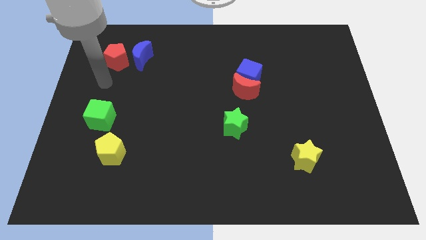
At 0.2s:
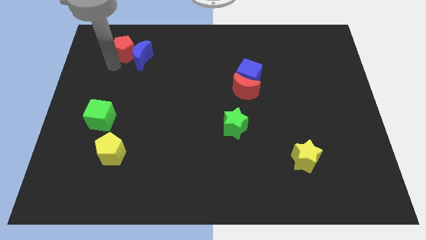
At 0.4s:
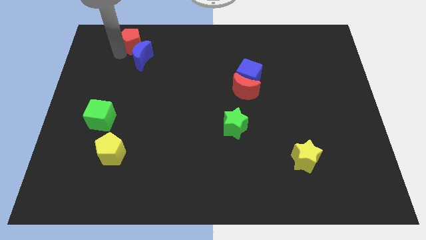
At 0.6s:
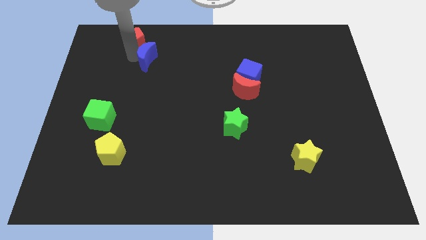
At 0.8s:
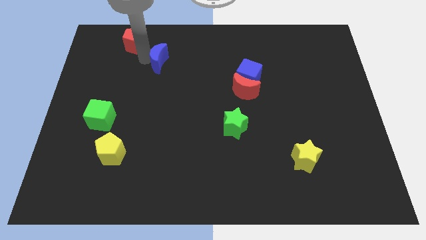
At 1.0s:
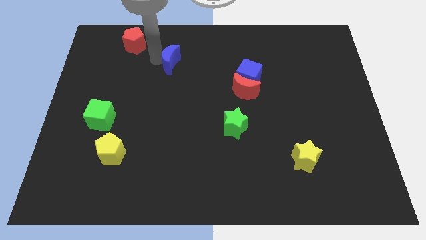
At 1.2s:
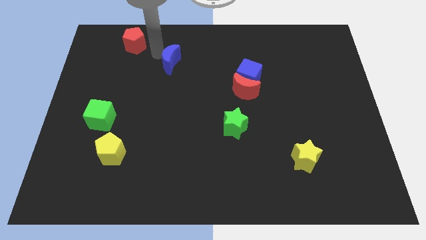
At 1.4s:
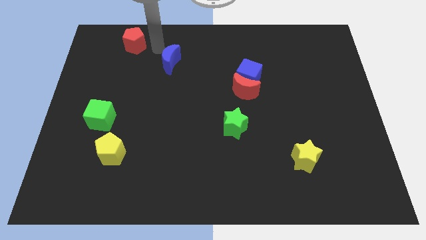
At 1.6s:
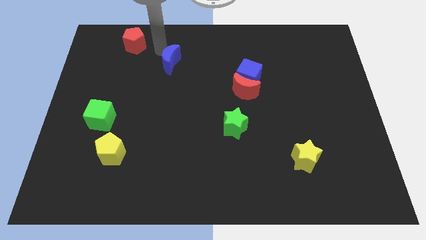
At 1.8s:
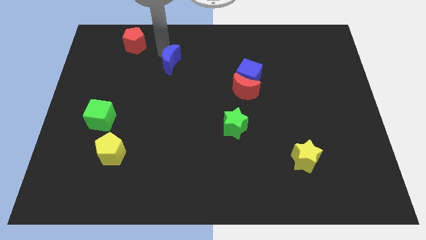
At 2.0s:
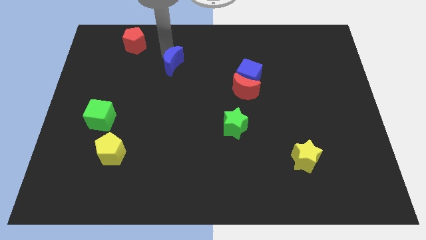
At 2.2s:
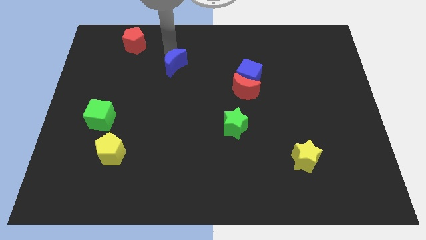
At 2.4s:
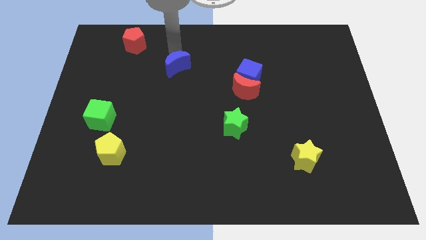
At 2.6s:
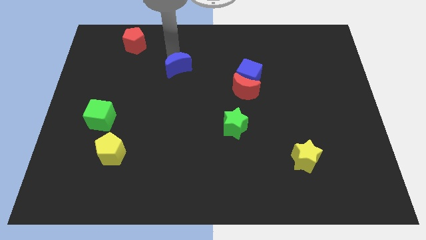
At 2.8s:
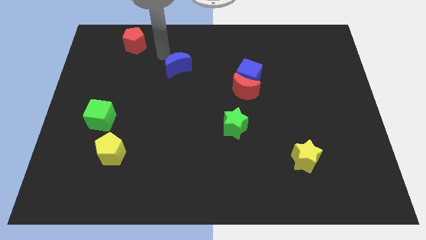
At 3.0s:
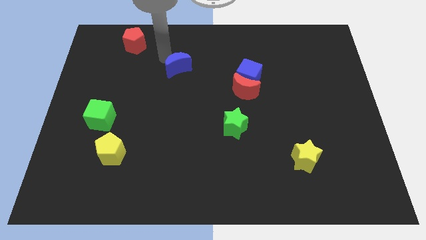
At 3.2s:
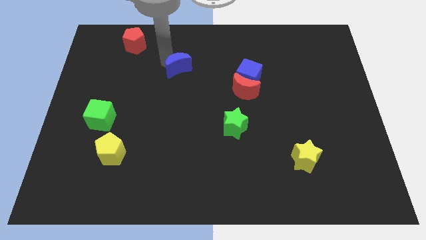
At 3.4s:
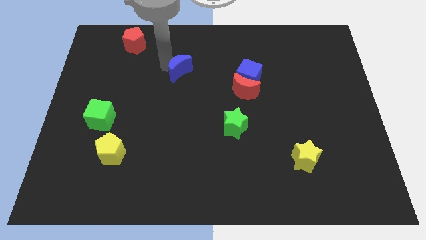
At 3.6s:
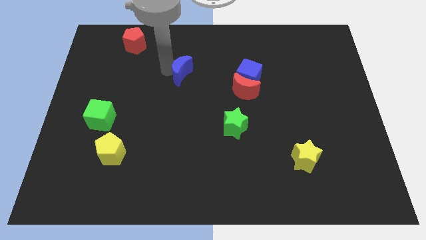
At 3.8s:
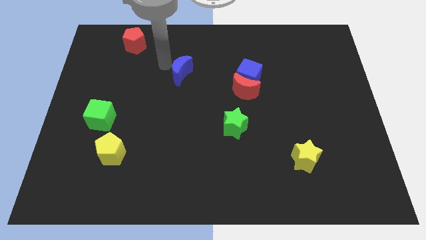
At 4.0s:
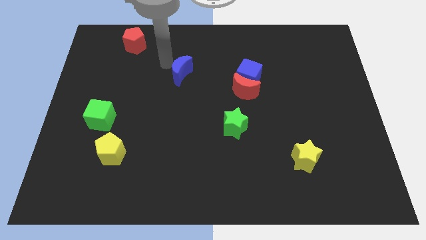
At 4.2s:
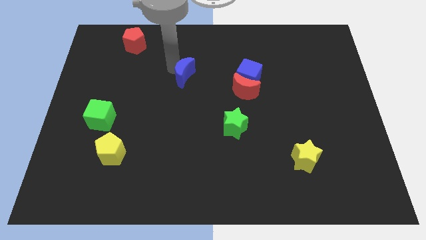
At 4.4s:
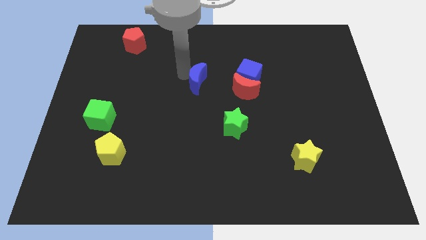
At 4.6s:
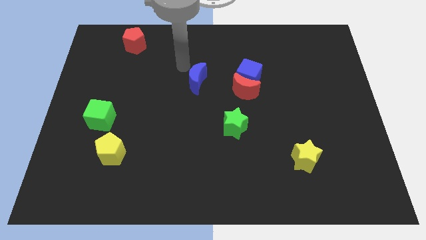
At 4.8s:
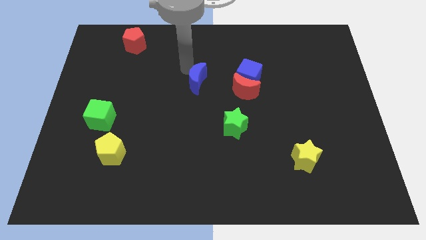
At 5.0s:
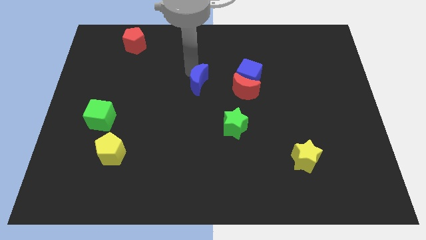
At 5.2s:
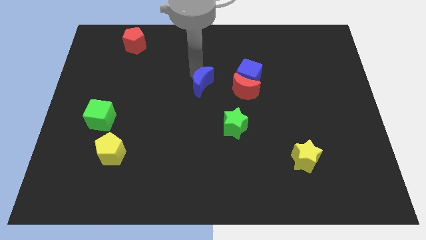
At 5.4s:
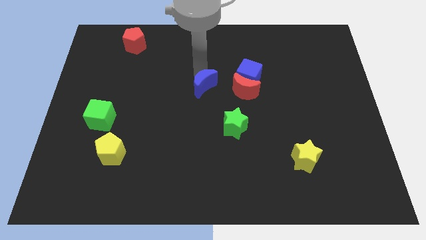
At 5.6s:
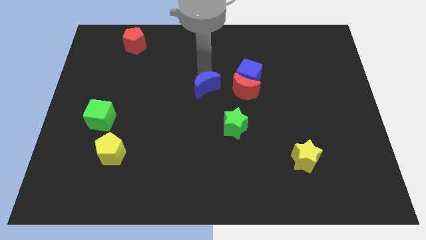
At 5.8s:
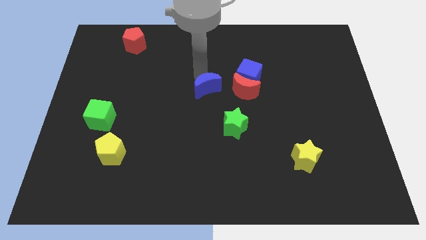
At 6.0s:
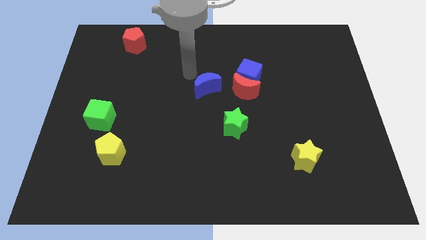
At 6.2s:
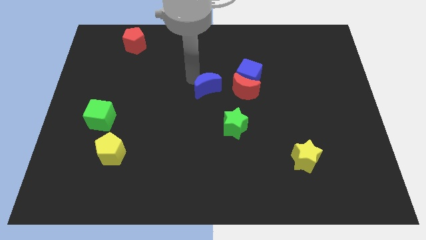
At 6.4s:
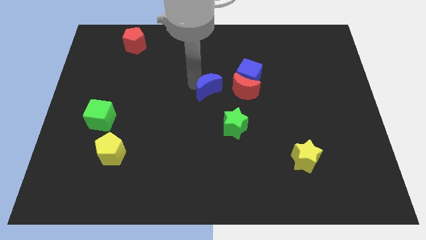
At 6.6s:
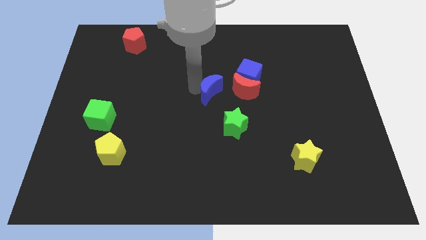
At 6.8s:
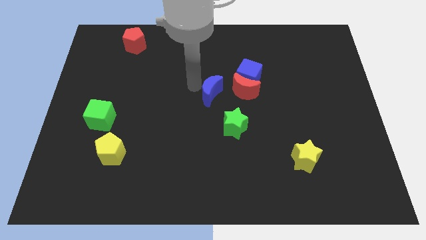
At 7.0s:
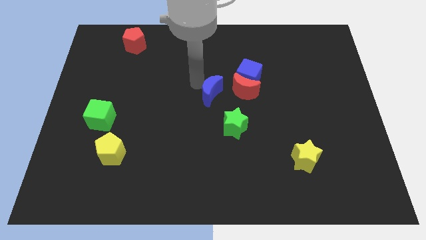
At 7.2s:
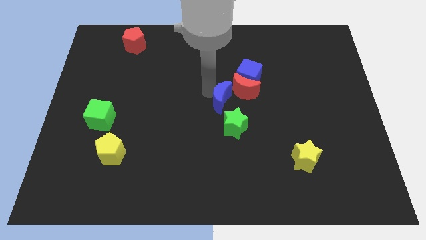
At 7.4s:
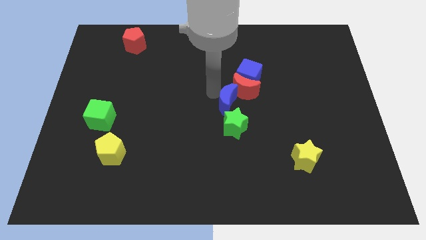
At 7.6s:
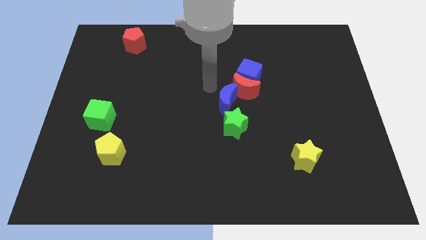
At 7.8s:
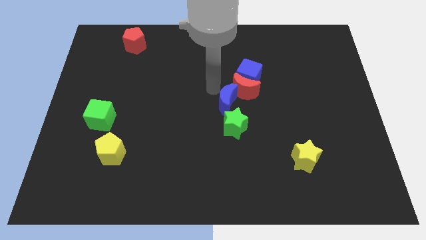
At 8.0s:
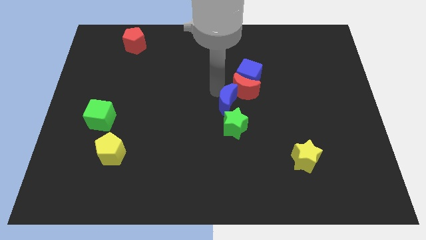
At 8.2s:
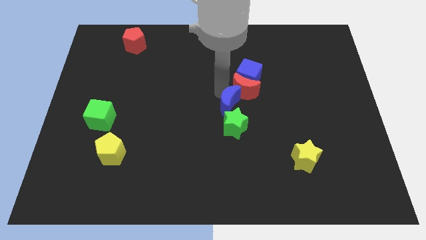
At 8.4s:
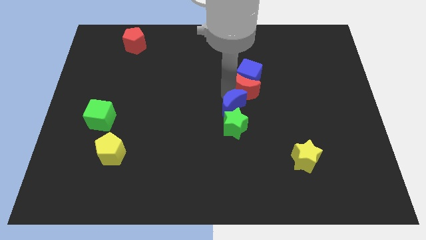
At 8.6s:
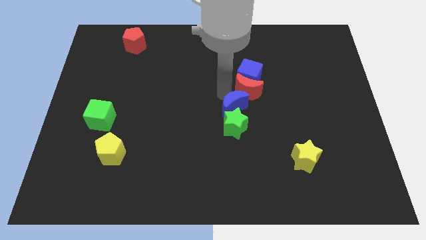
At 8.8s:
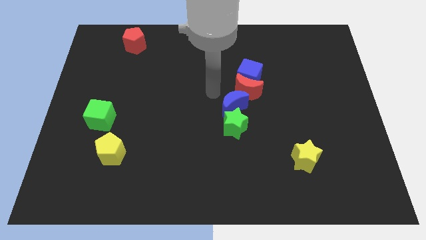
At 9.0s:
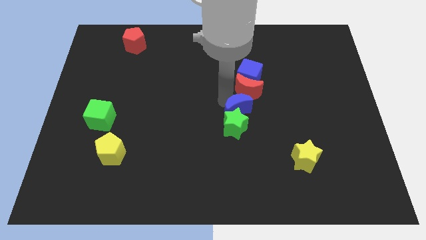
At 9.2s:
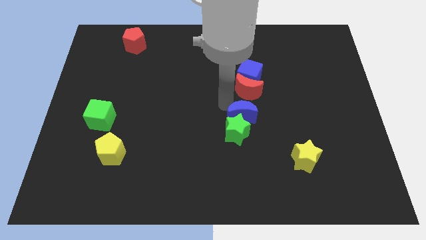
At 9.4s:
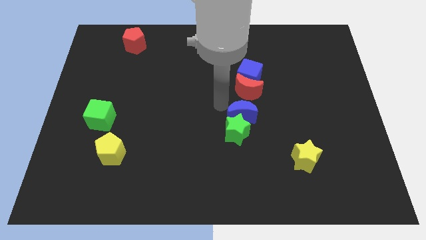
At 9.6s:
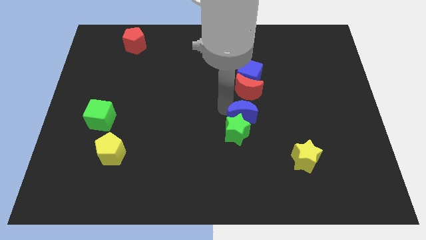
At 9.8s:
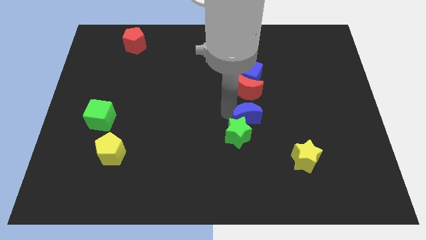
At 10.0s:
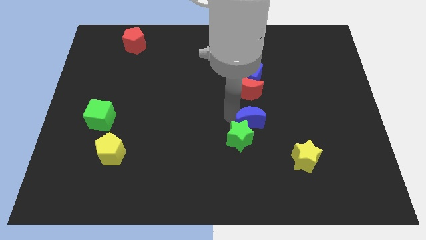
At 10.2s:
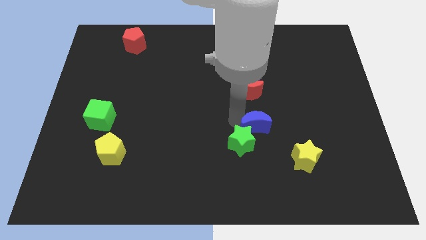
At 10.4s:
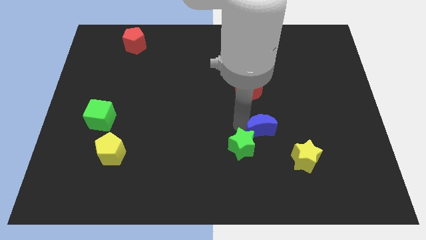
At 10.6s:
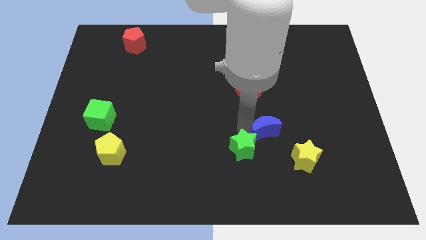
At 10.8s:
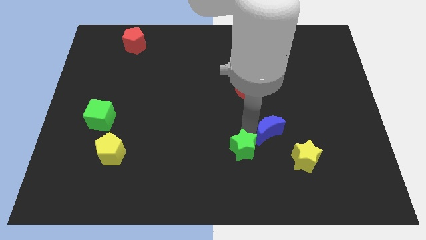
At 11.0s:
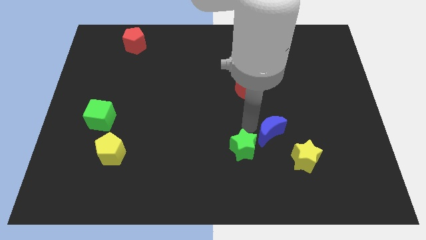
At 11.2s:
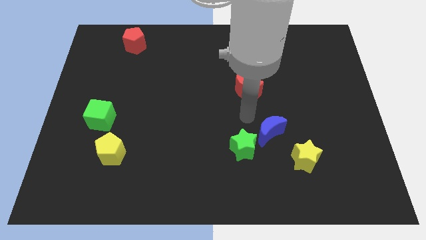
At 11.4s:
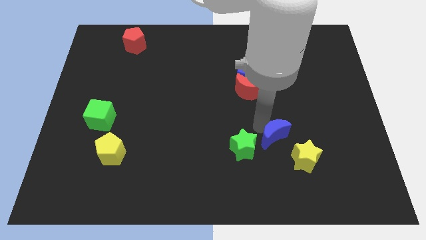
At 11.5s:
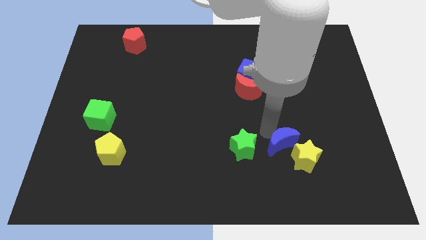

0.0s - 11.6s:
slide the blue moon towards the yellow star

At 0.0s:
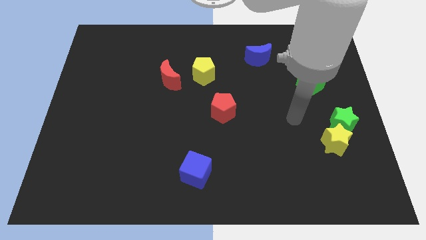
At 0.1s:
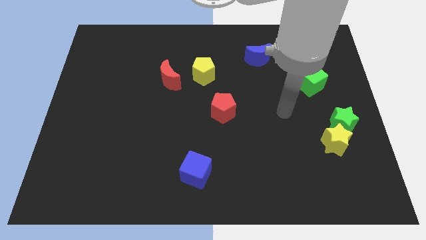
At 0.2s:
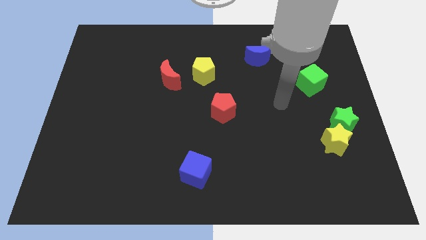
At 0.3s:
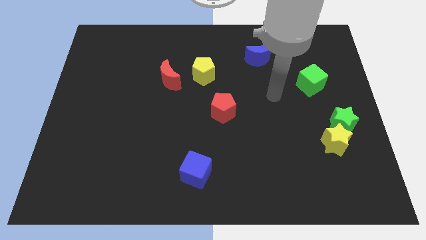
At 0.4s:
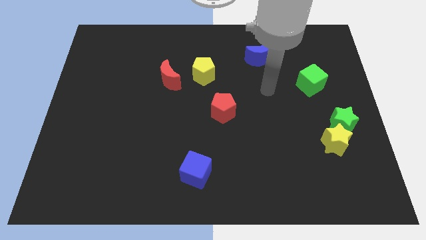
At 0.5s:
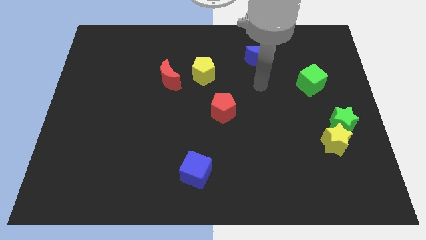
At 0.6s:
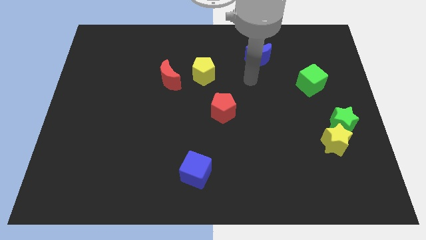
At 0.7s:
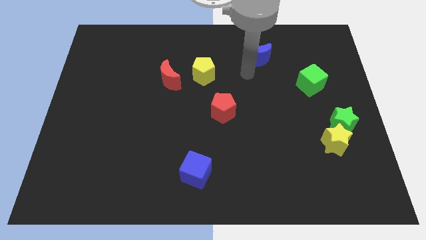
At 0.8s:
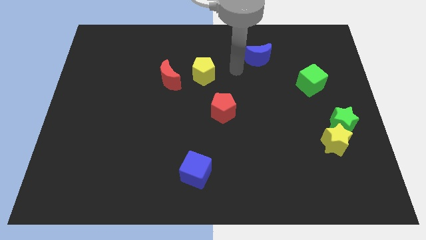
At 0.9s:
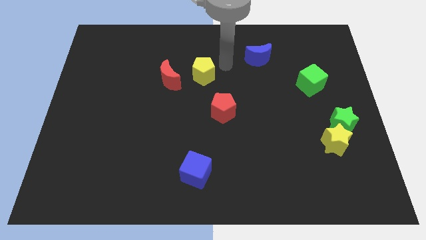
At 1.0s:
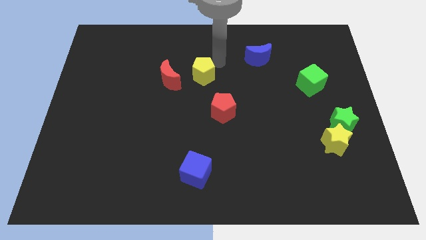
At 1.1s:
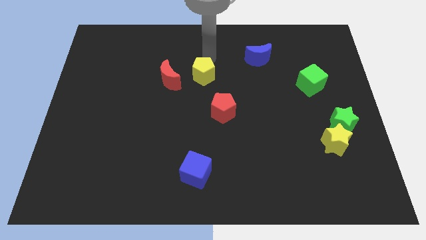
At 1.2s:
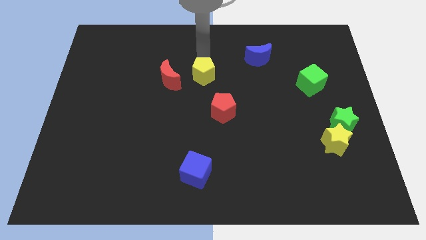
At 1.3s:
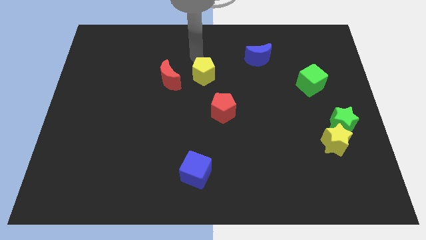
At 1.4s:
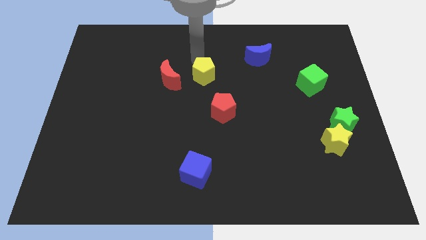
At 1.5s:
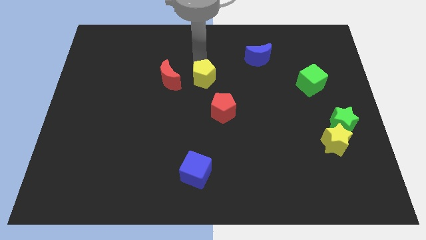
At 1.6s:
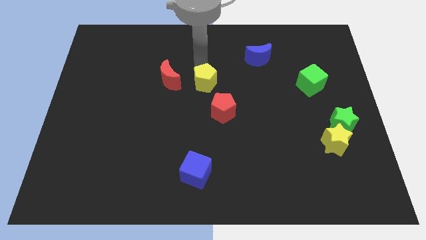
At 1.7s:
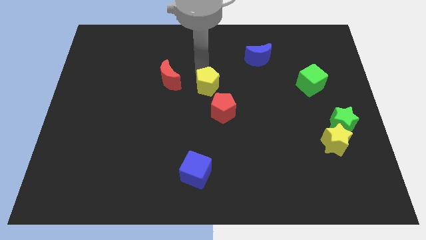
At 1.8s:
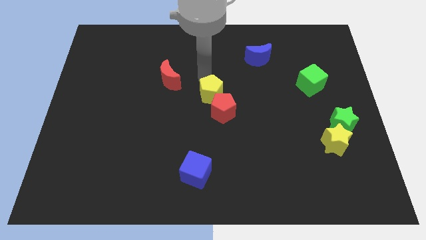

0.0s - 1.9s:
slide the yellow pentagon close to the red pentagon
